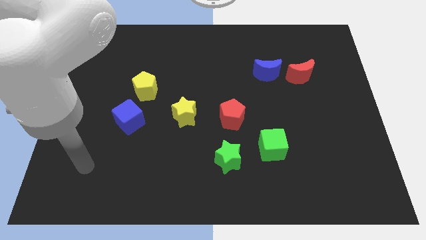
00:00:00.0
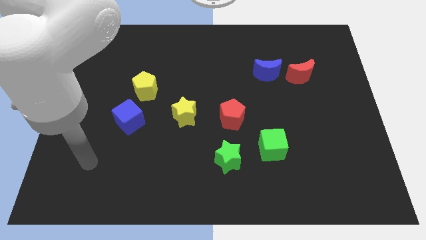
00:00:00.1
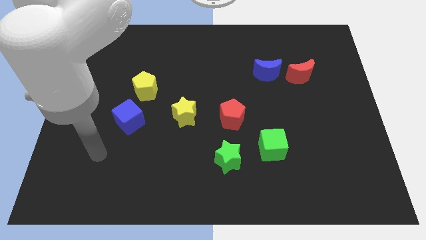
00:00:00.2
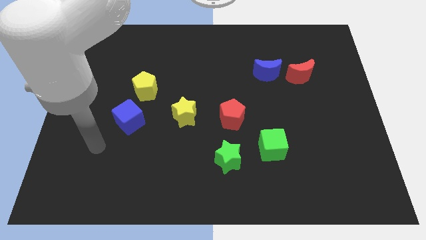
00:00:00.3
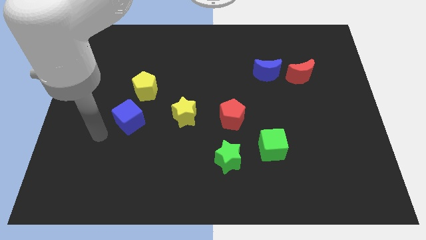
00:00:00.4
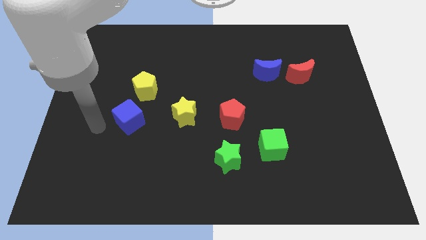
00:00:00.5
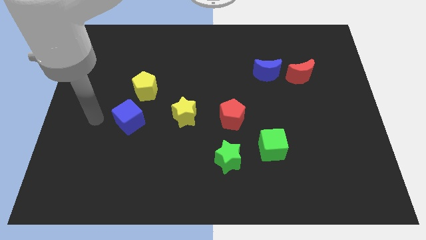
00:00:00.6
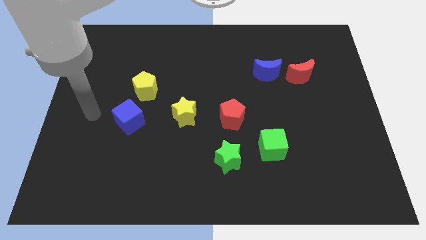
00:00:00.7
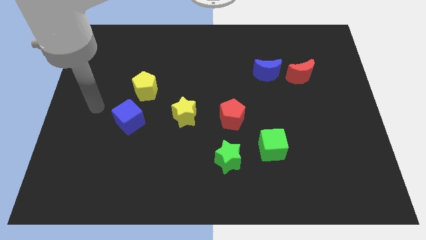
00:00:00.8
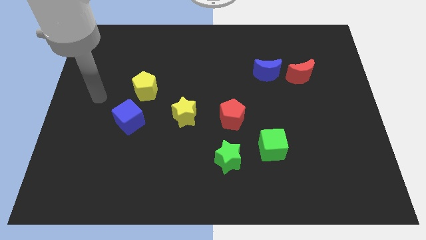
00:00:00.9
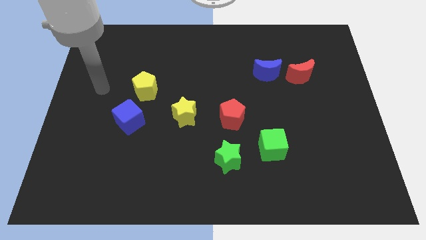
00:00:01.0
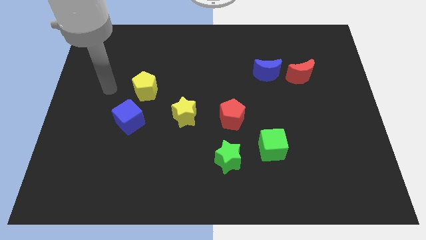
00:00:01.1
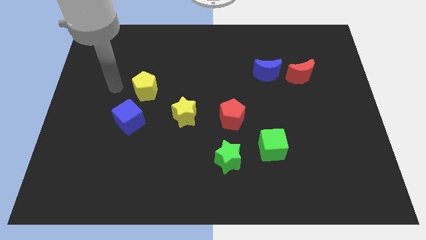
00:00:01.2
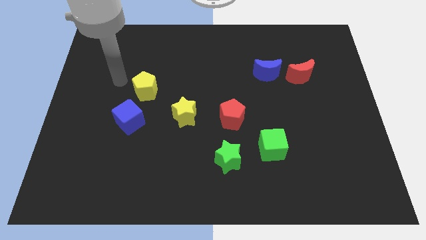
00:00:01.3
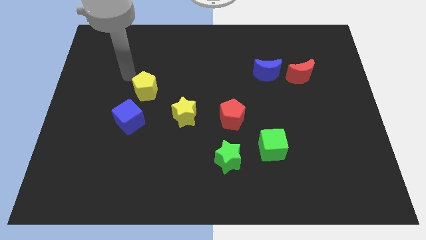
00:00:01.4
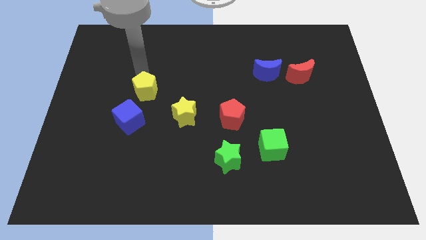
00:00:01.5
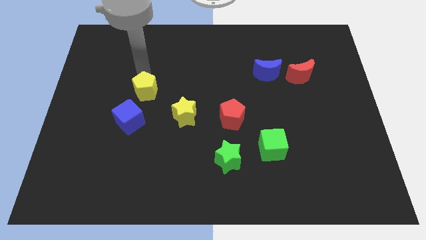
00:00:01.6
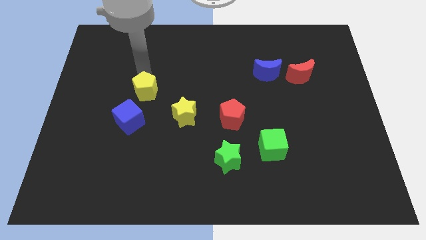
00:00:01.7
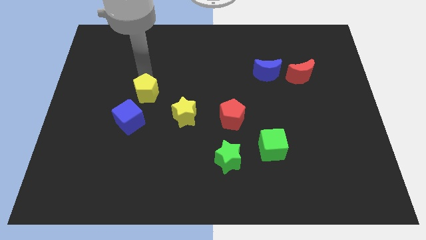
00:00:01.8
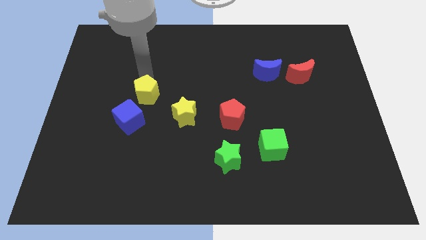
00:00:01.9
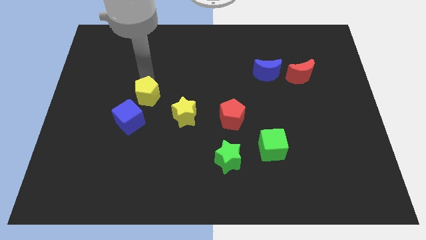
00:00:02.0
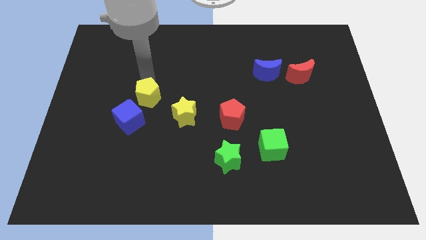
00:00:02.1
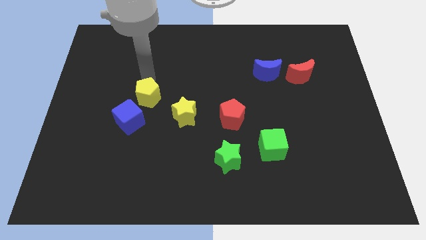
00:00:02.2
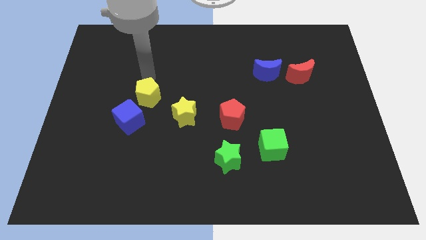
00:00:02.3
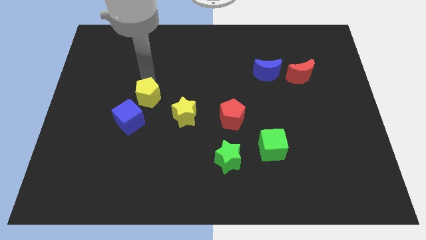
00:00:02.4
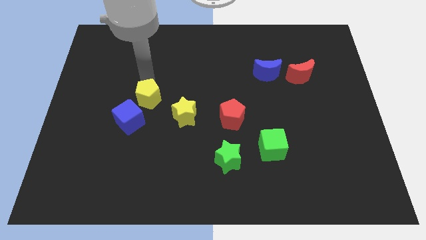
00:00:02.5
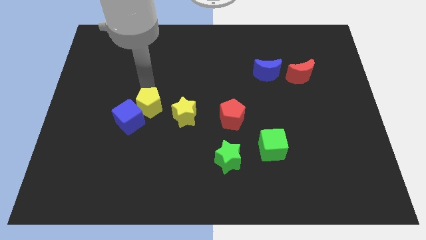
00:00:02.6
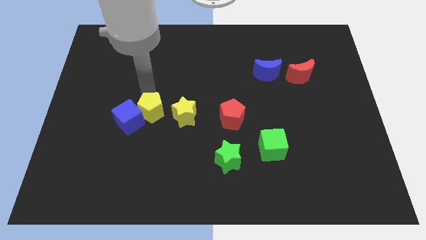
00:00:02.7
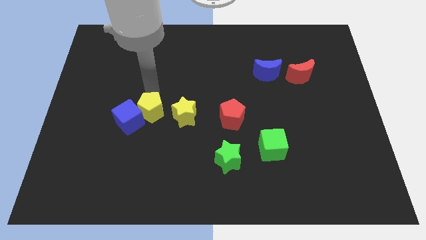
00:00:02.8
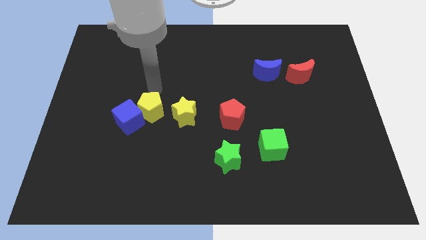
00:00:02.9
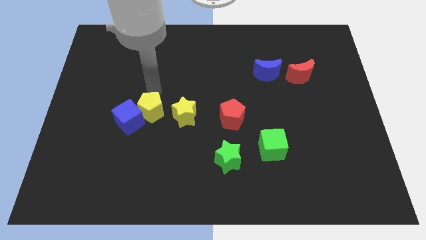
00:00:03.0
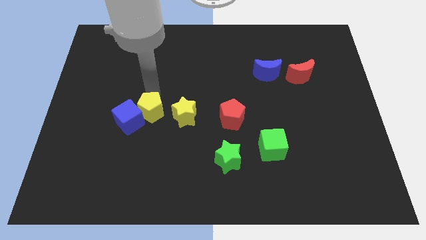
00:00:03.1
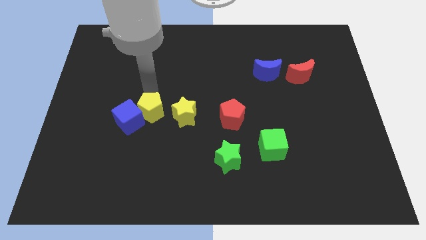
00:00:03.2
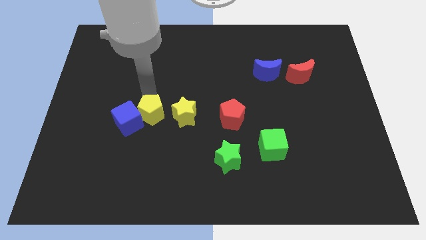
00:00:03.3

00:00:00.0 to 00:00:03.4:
push the yellow pentagon down a bit

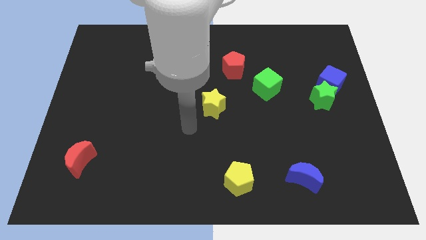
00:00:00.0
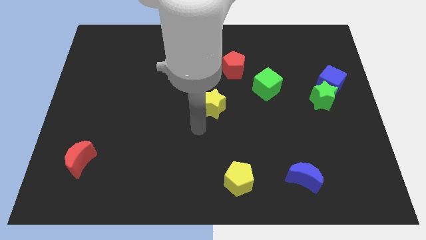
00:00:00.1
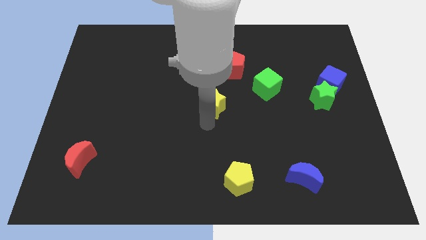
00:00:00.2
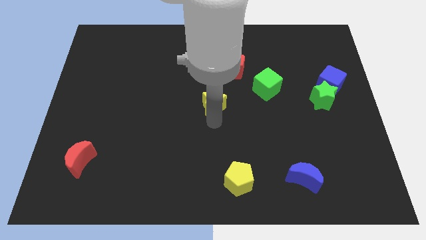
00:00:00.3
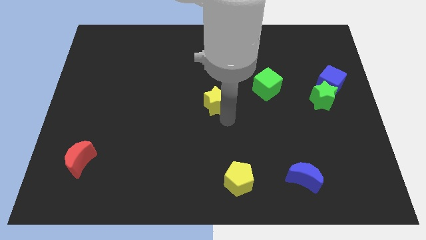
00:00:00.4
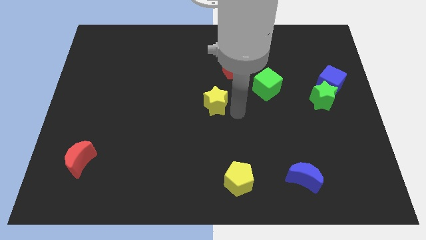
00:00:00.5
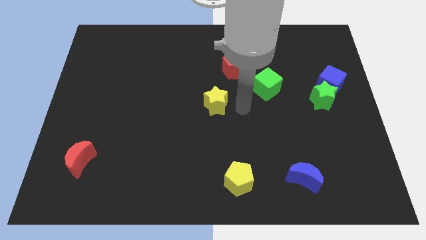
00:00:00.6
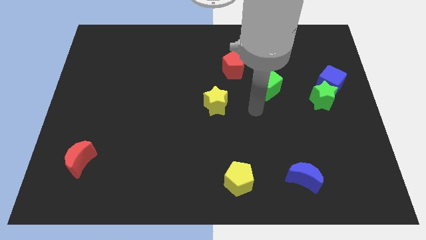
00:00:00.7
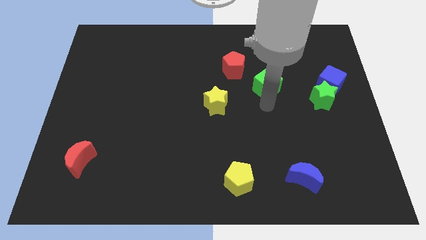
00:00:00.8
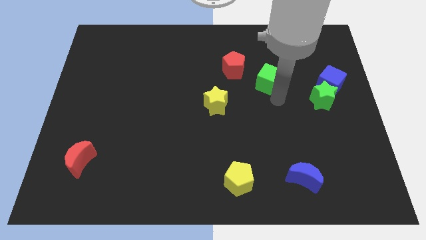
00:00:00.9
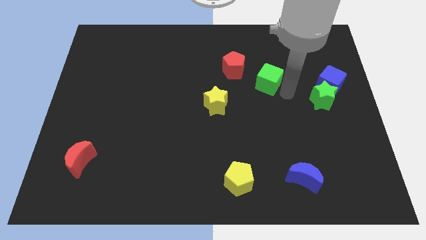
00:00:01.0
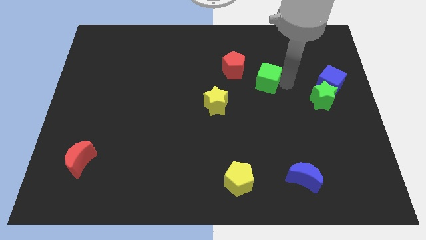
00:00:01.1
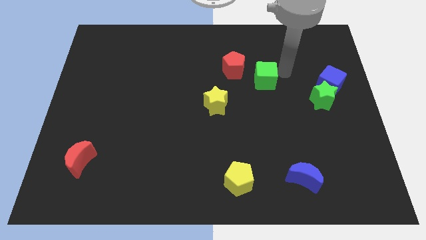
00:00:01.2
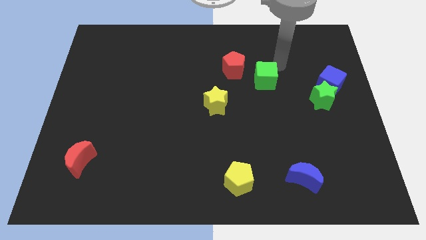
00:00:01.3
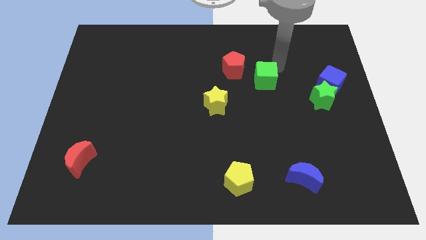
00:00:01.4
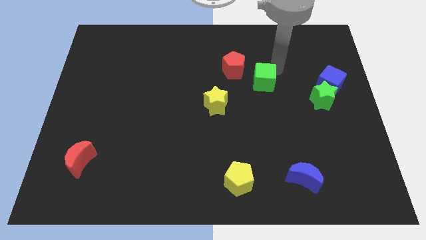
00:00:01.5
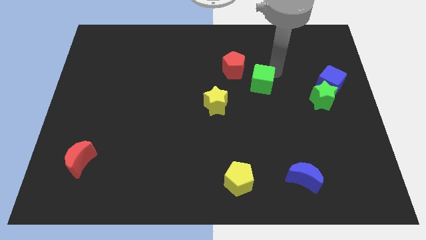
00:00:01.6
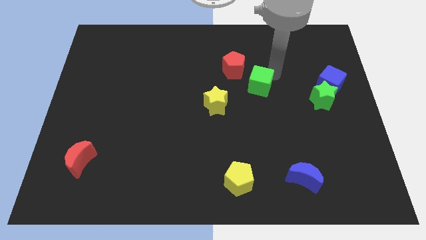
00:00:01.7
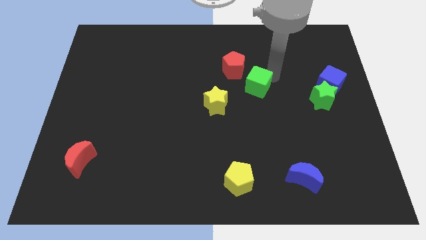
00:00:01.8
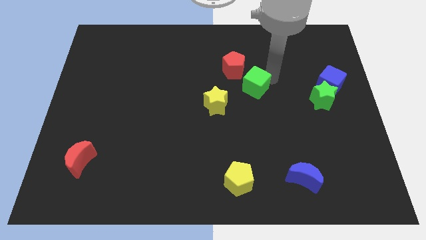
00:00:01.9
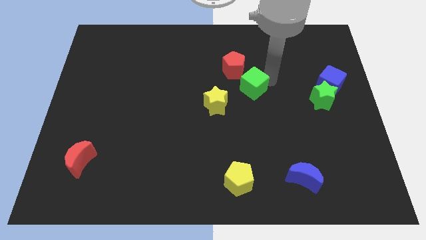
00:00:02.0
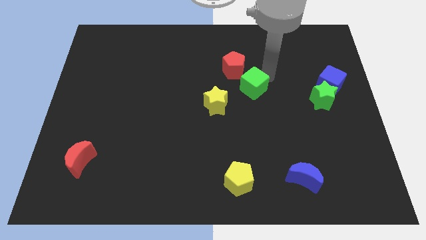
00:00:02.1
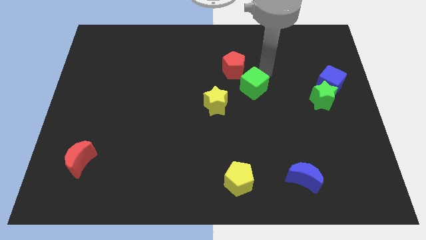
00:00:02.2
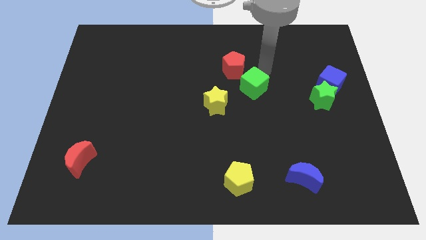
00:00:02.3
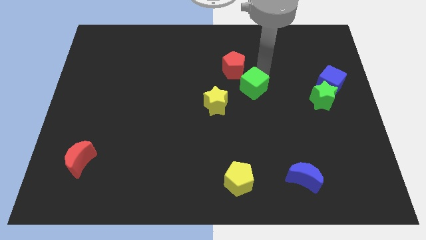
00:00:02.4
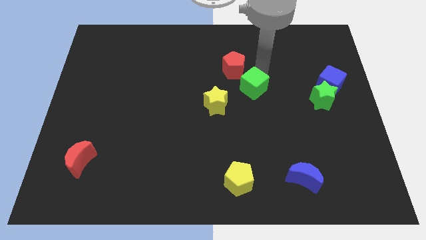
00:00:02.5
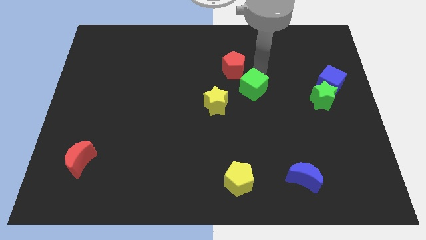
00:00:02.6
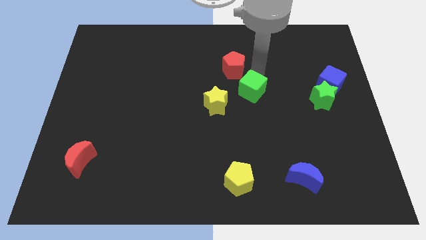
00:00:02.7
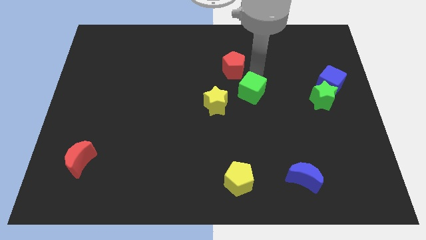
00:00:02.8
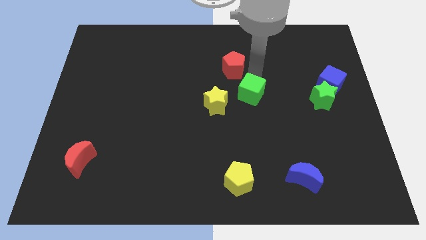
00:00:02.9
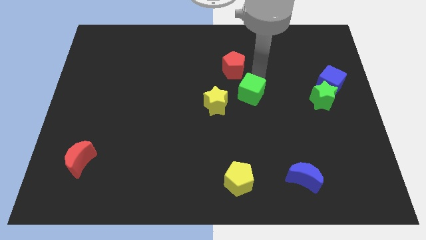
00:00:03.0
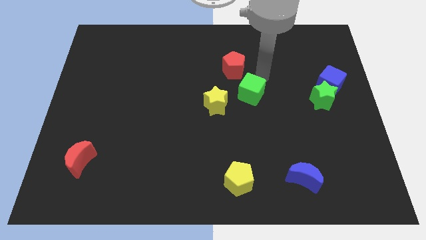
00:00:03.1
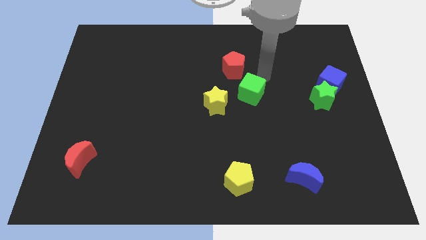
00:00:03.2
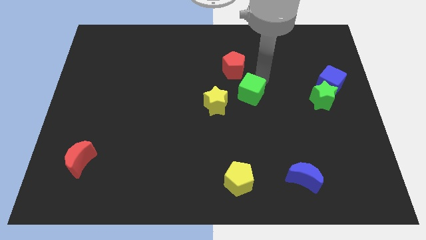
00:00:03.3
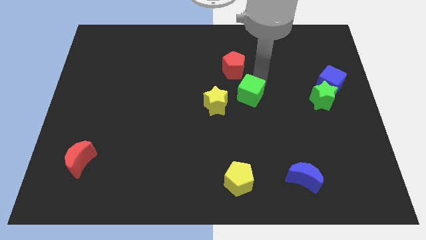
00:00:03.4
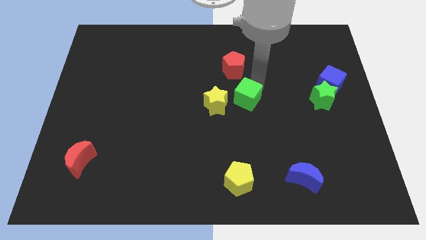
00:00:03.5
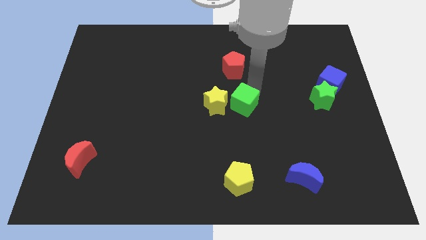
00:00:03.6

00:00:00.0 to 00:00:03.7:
move the green cube down and then left a bit

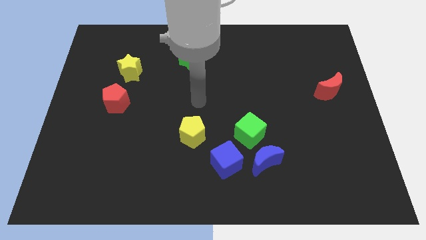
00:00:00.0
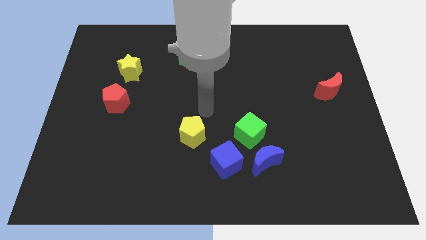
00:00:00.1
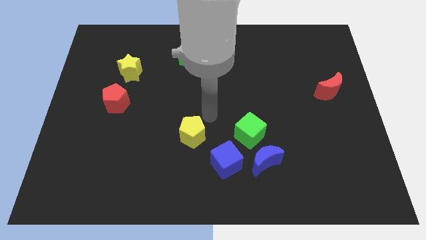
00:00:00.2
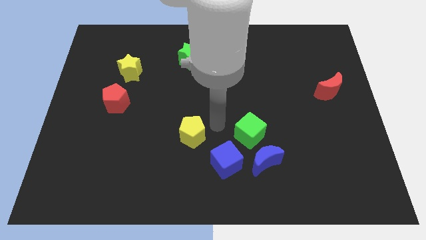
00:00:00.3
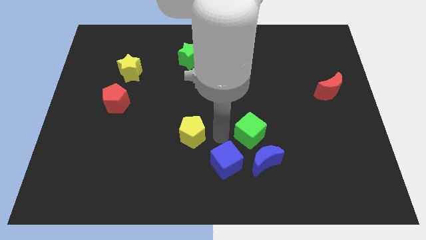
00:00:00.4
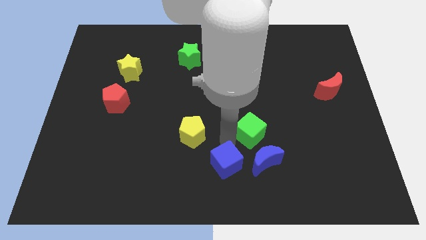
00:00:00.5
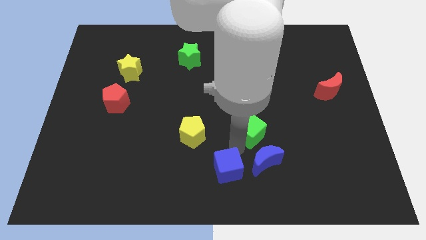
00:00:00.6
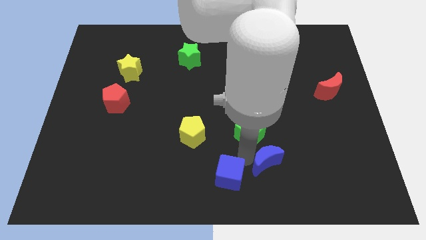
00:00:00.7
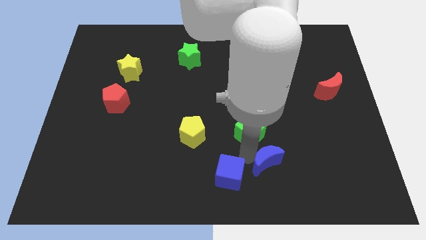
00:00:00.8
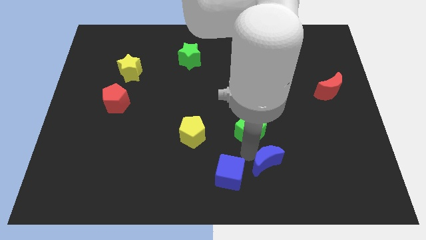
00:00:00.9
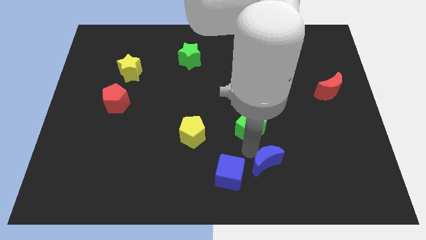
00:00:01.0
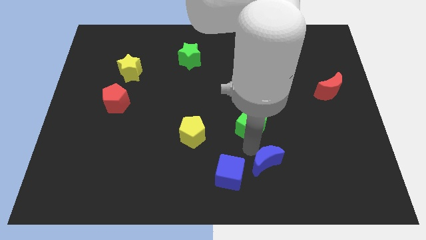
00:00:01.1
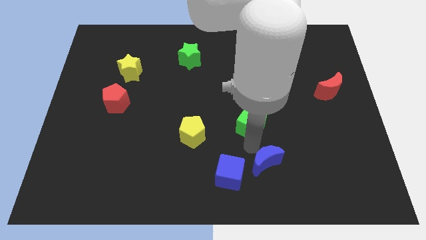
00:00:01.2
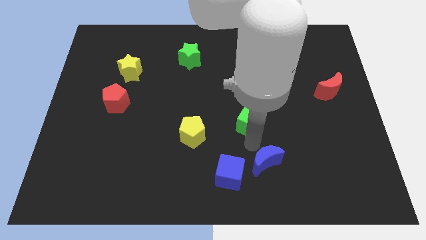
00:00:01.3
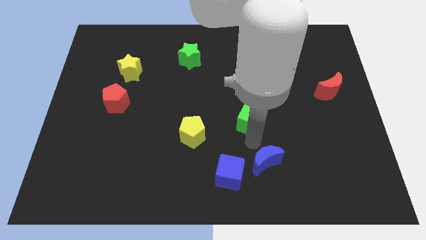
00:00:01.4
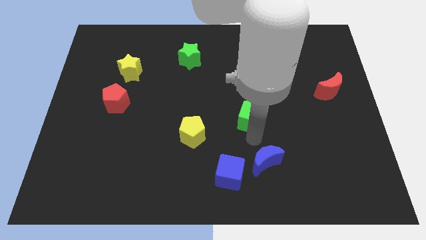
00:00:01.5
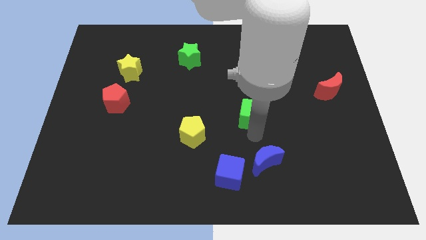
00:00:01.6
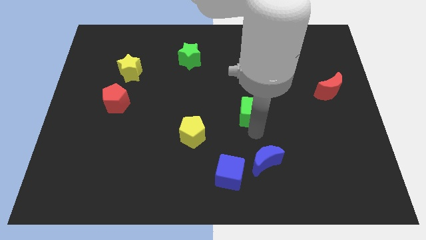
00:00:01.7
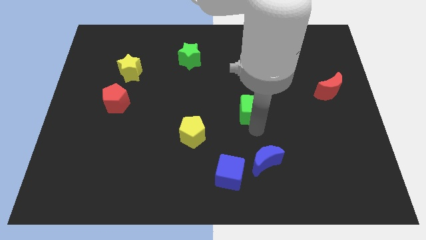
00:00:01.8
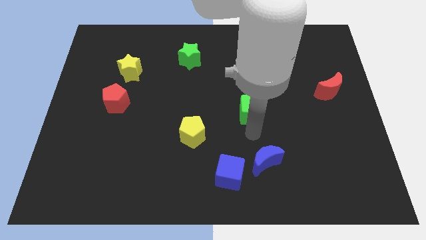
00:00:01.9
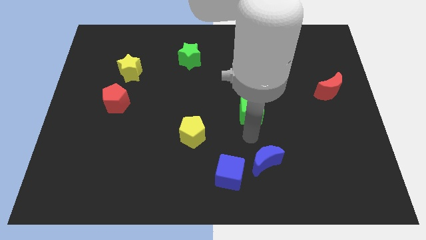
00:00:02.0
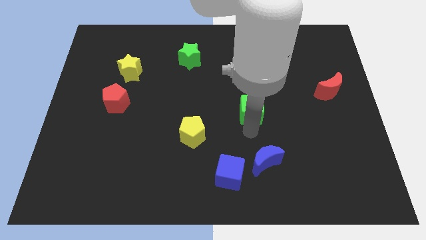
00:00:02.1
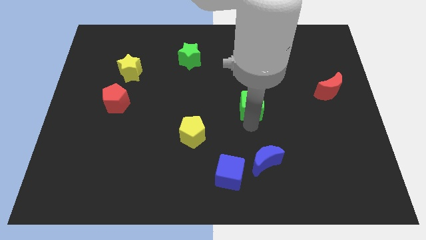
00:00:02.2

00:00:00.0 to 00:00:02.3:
move the green cube a bit up
